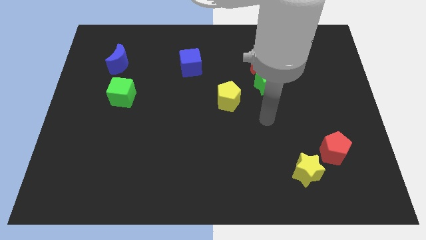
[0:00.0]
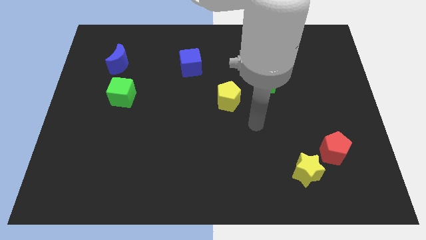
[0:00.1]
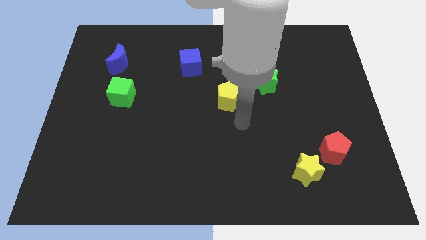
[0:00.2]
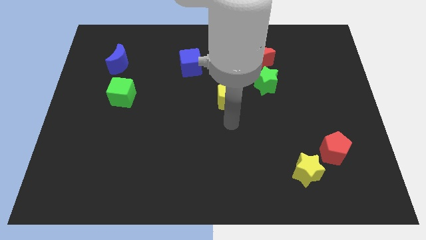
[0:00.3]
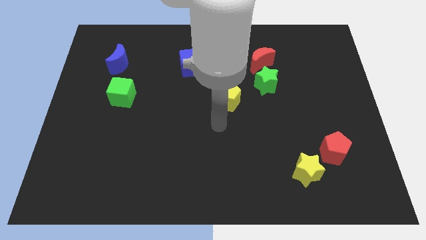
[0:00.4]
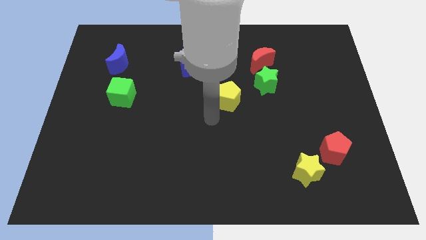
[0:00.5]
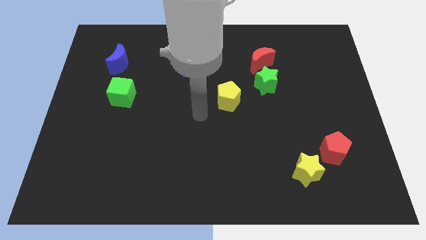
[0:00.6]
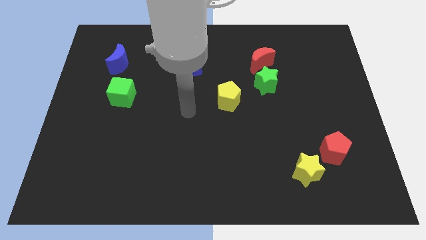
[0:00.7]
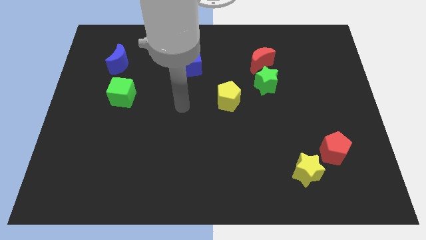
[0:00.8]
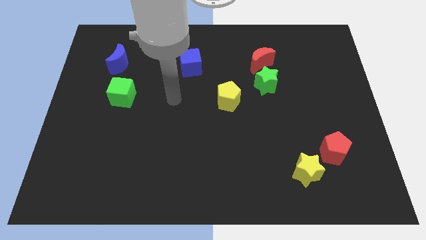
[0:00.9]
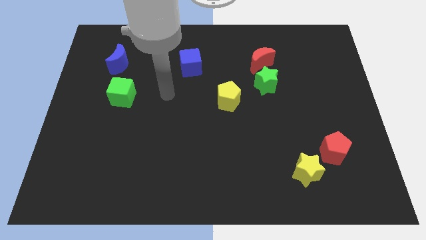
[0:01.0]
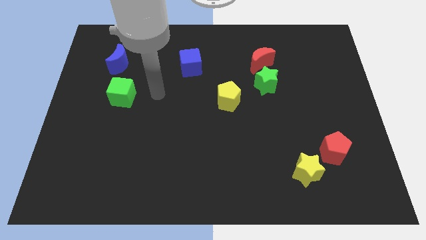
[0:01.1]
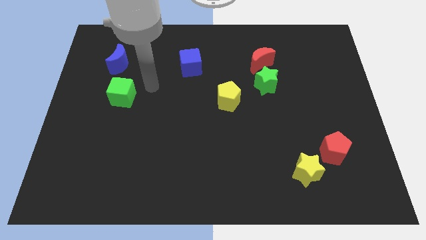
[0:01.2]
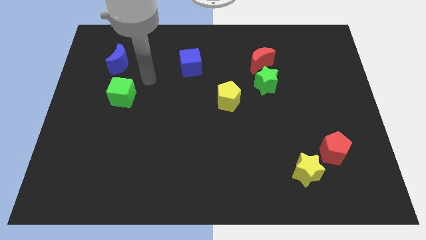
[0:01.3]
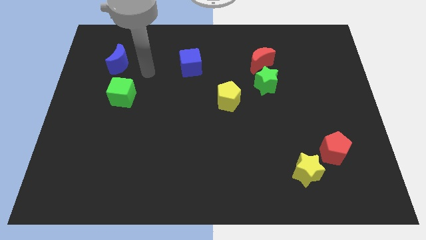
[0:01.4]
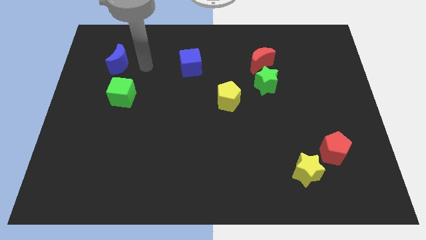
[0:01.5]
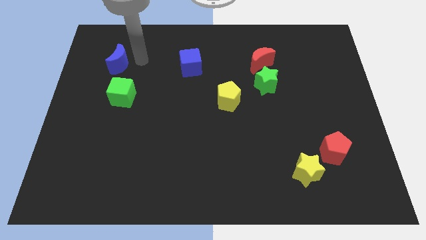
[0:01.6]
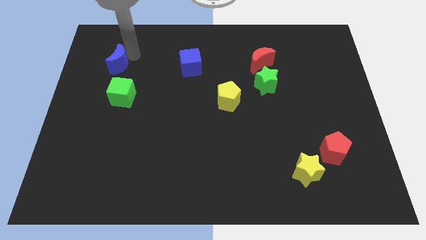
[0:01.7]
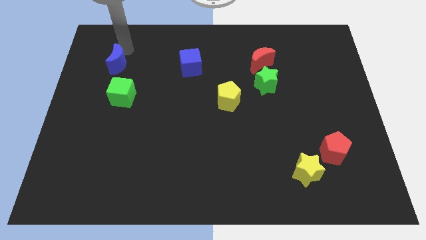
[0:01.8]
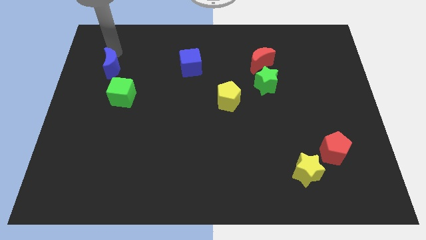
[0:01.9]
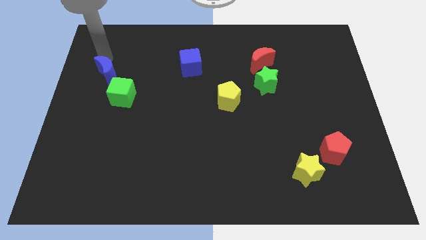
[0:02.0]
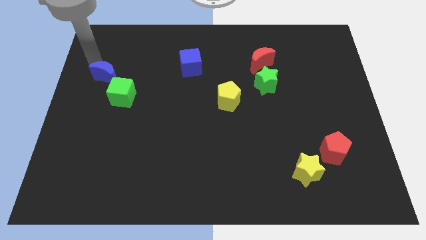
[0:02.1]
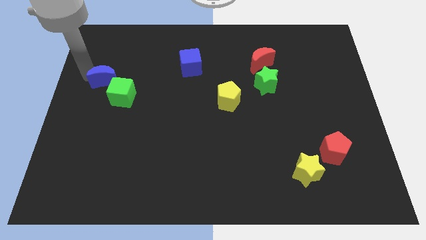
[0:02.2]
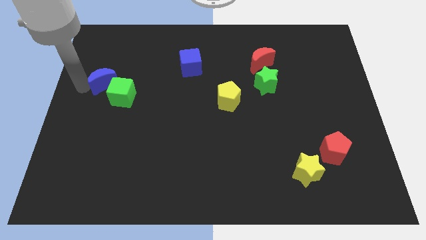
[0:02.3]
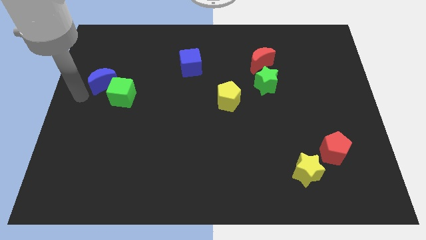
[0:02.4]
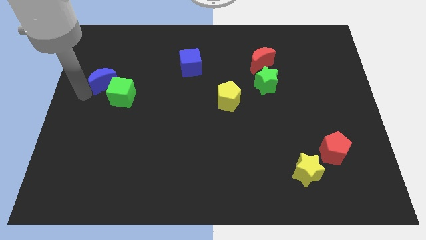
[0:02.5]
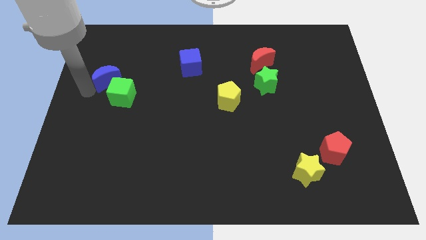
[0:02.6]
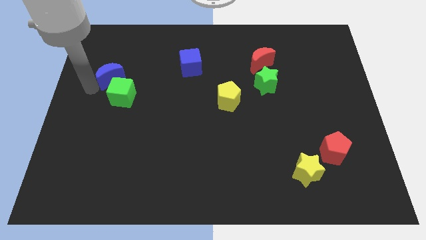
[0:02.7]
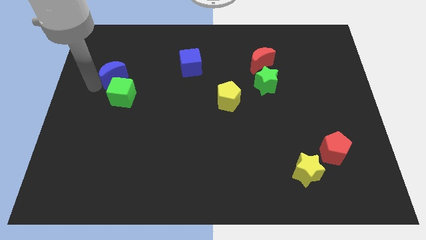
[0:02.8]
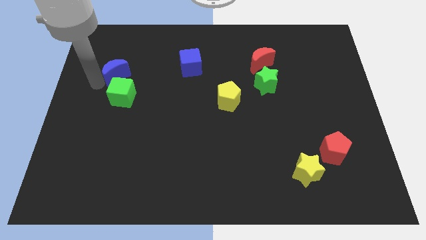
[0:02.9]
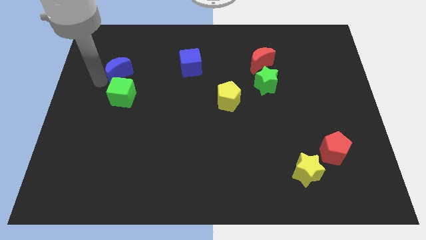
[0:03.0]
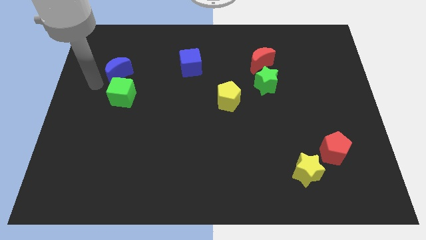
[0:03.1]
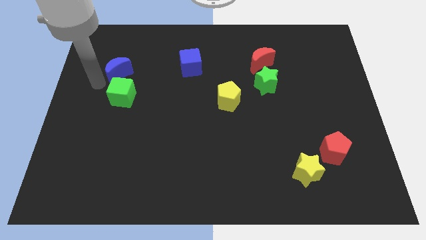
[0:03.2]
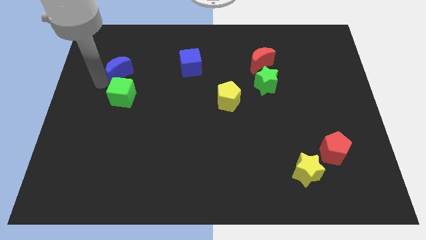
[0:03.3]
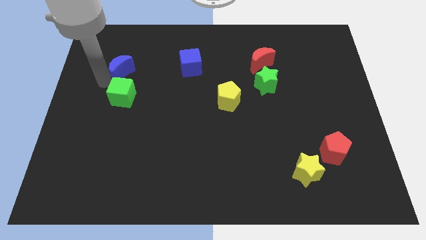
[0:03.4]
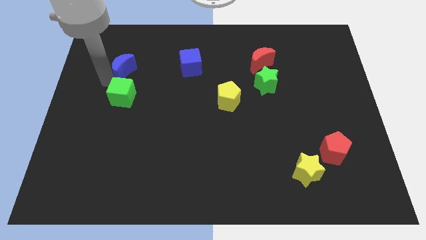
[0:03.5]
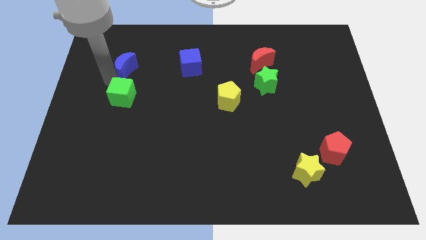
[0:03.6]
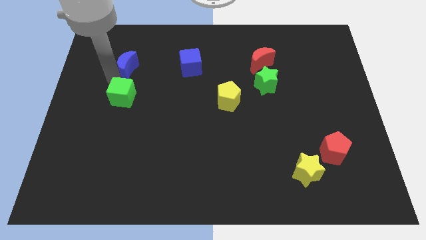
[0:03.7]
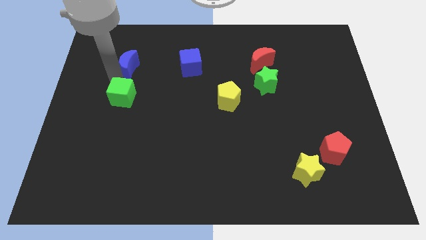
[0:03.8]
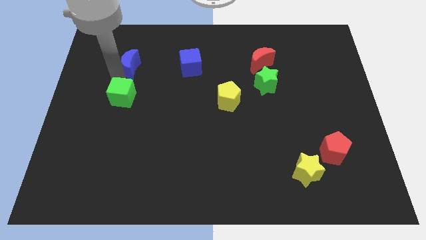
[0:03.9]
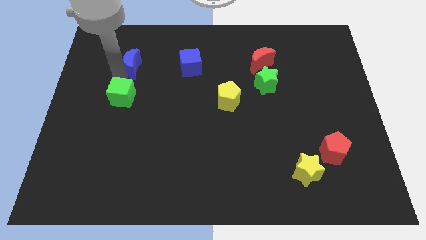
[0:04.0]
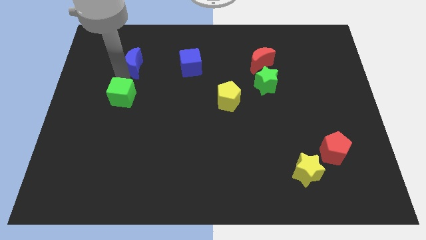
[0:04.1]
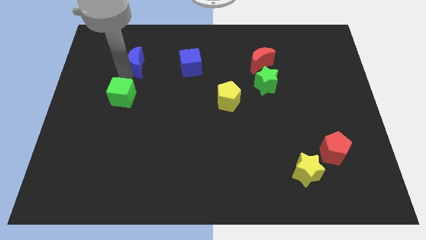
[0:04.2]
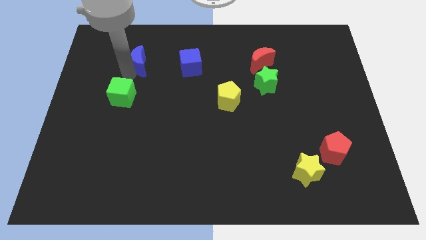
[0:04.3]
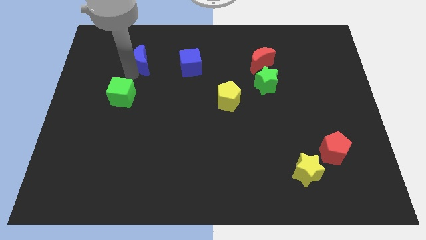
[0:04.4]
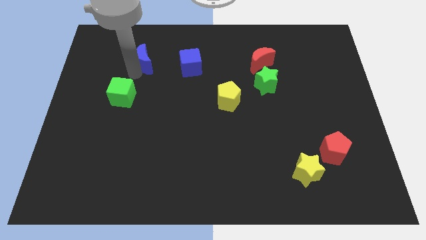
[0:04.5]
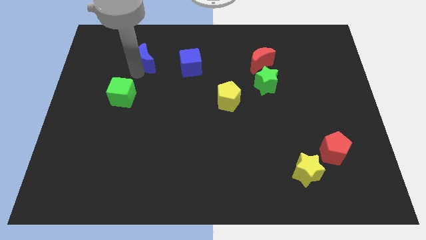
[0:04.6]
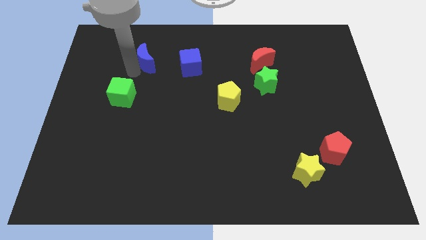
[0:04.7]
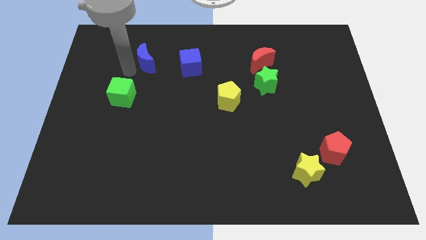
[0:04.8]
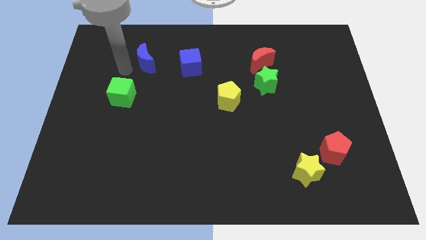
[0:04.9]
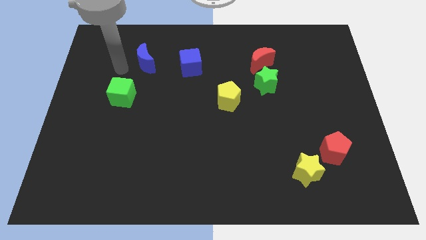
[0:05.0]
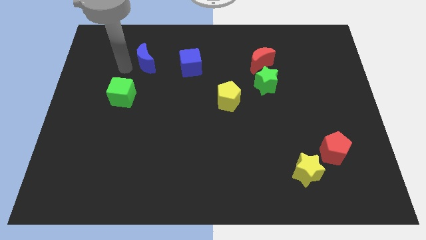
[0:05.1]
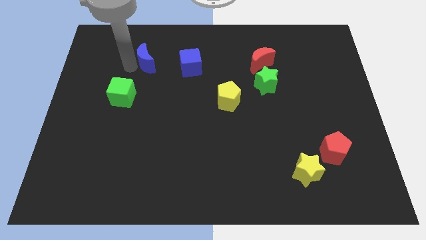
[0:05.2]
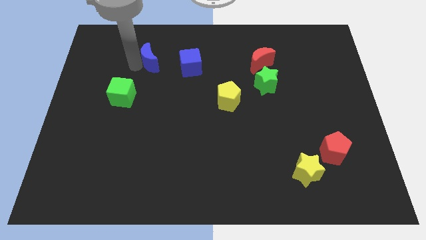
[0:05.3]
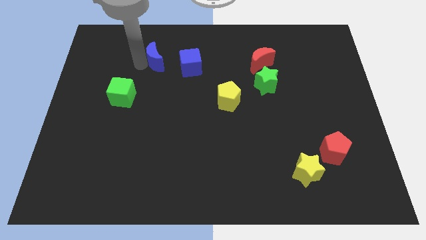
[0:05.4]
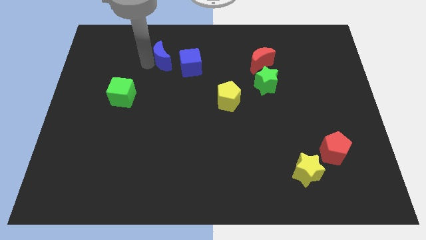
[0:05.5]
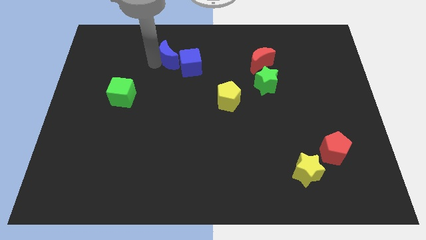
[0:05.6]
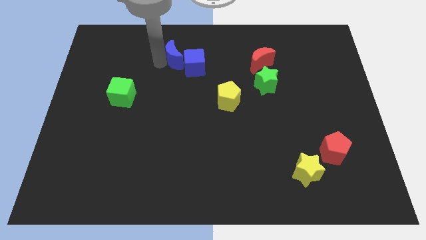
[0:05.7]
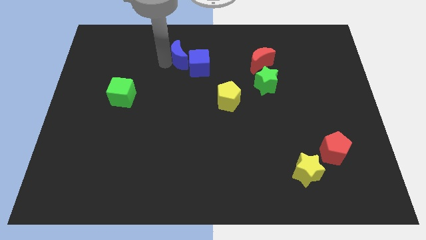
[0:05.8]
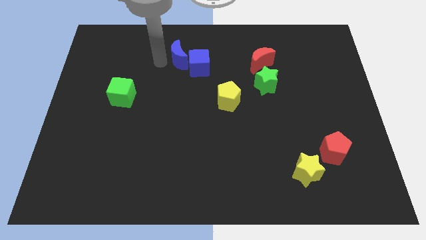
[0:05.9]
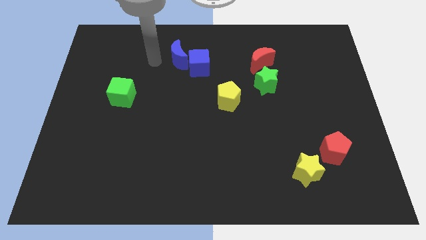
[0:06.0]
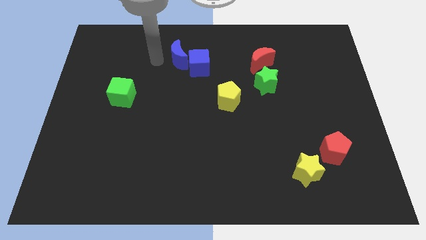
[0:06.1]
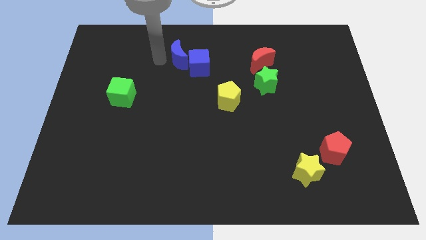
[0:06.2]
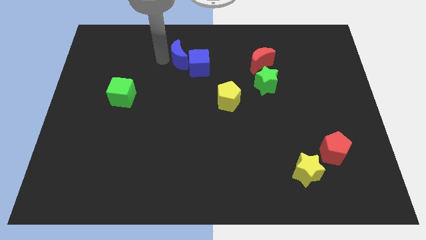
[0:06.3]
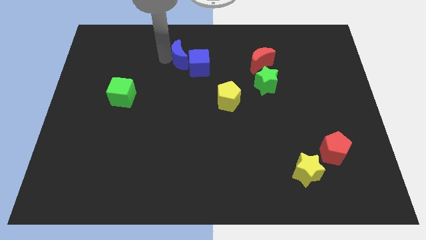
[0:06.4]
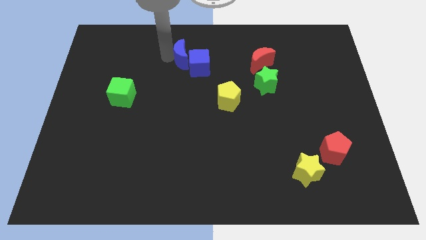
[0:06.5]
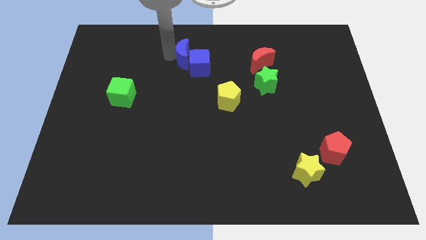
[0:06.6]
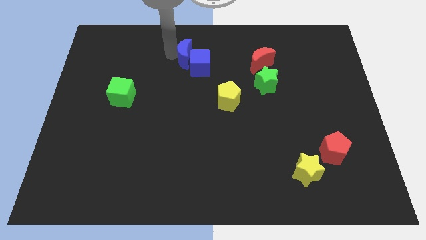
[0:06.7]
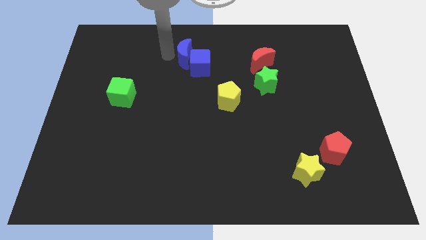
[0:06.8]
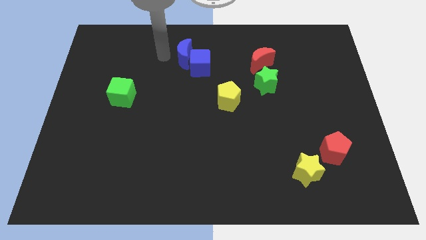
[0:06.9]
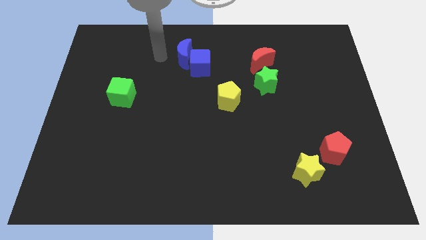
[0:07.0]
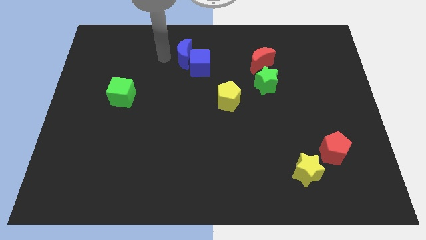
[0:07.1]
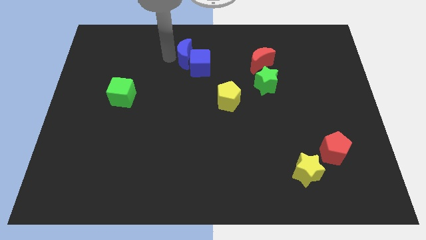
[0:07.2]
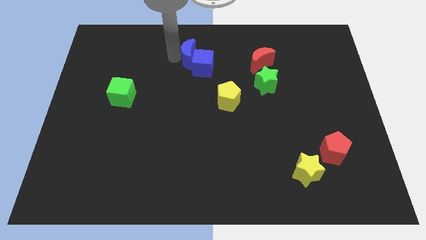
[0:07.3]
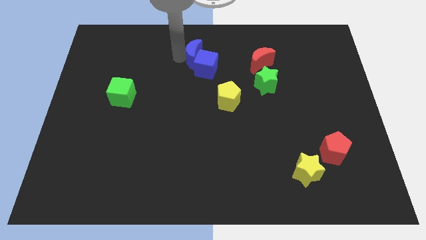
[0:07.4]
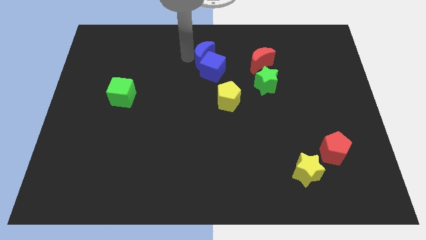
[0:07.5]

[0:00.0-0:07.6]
push the blue moon to the right

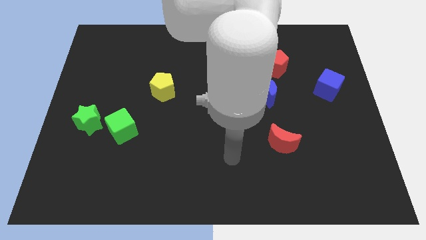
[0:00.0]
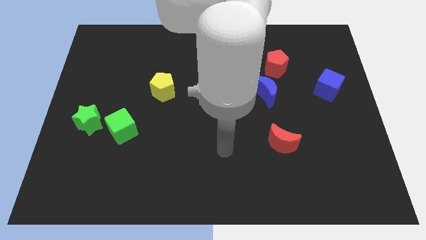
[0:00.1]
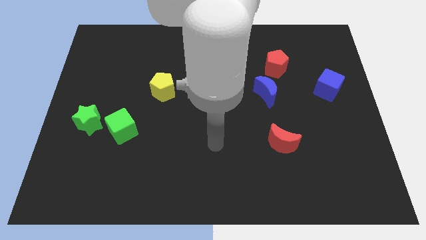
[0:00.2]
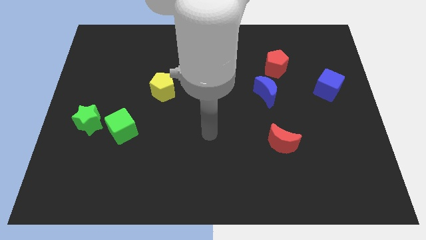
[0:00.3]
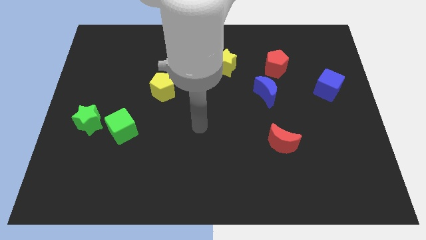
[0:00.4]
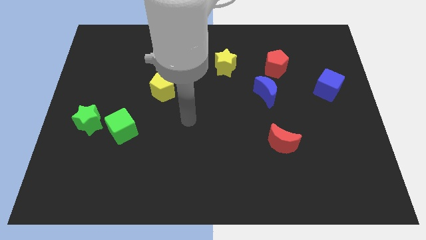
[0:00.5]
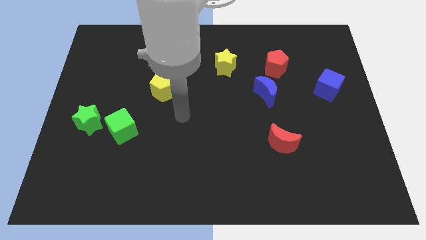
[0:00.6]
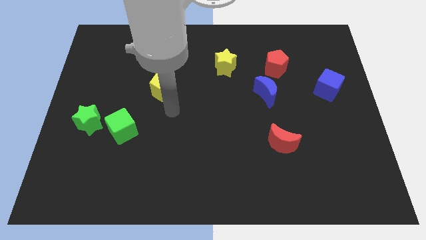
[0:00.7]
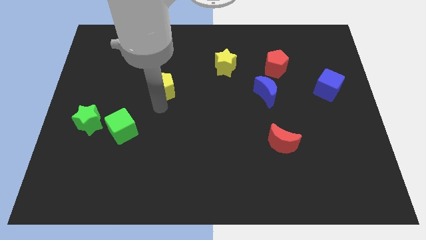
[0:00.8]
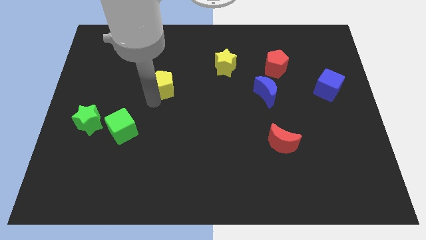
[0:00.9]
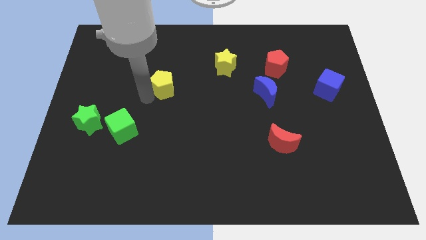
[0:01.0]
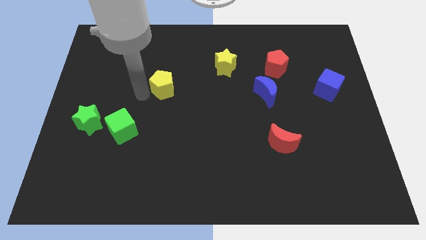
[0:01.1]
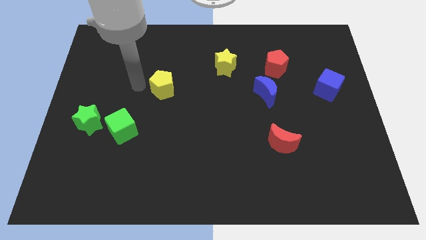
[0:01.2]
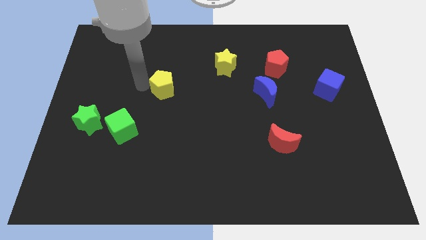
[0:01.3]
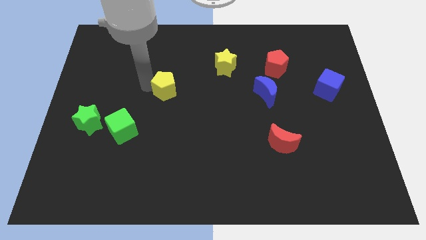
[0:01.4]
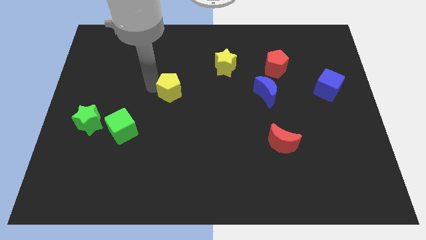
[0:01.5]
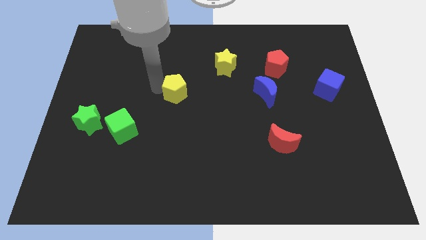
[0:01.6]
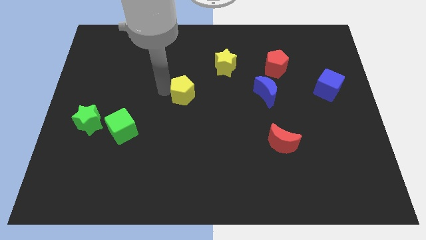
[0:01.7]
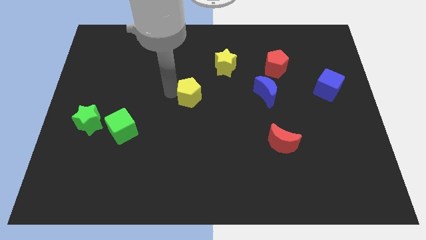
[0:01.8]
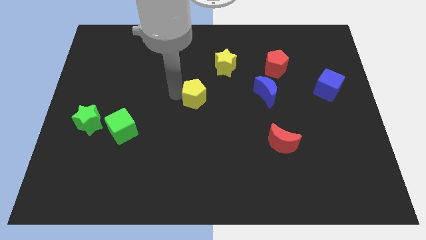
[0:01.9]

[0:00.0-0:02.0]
slide the yellow pentagon right slightly
